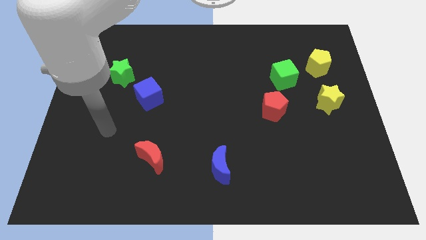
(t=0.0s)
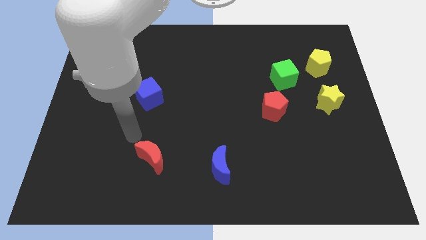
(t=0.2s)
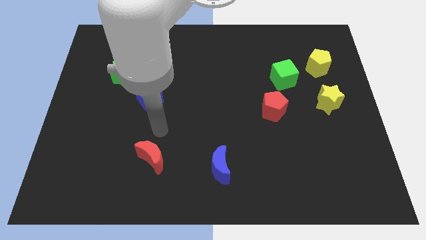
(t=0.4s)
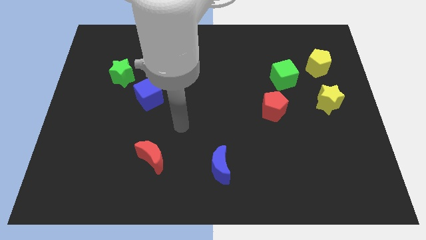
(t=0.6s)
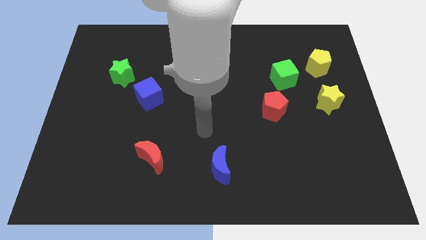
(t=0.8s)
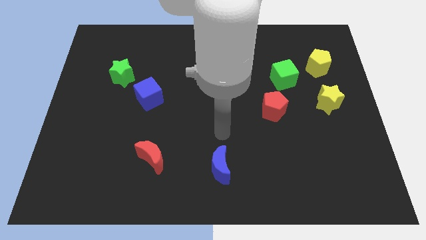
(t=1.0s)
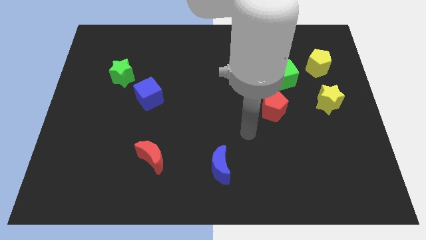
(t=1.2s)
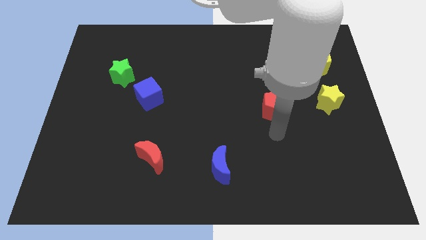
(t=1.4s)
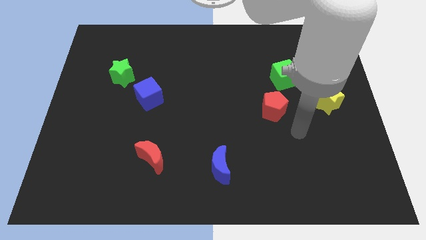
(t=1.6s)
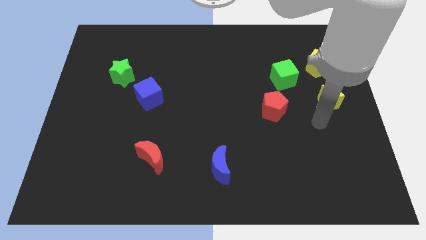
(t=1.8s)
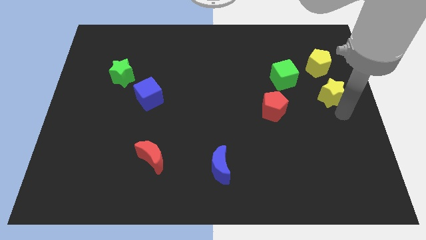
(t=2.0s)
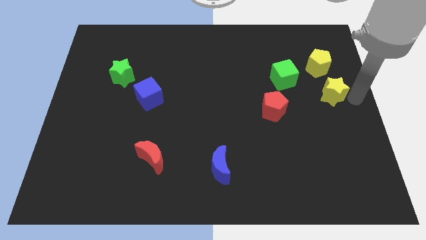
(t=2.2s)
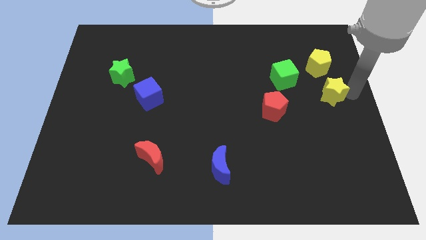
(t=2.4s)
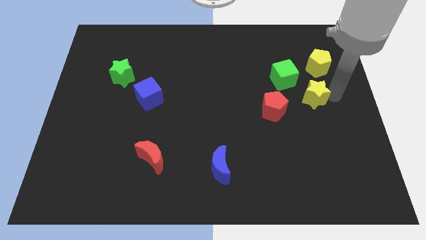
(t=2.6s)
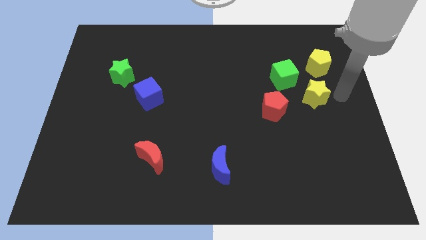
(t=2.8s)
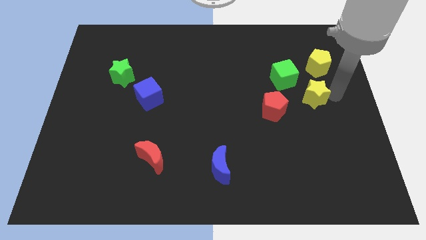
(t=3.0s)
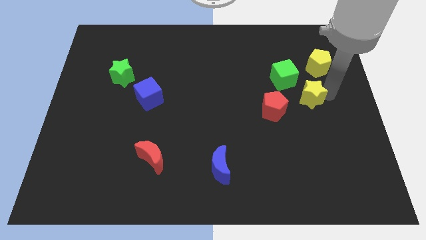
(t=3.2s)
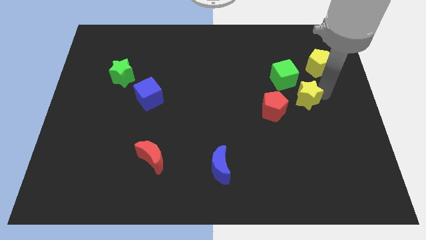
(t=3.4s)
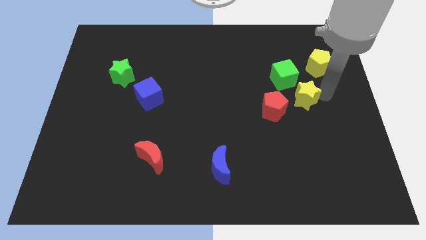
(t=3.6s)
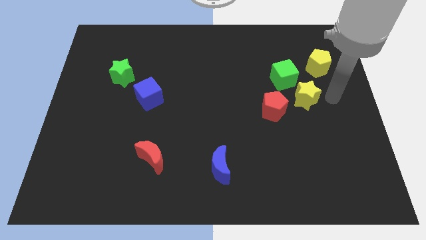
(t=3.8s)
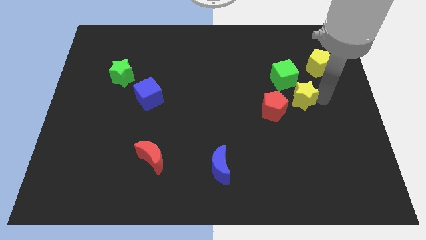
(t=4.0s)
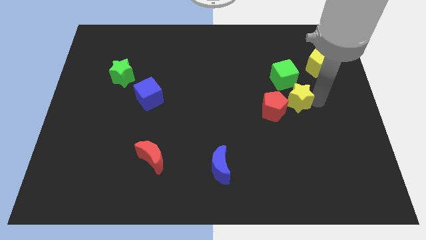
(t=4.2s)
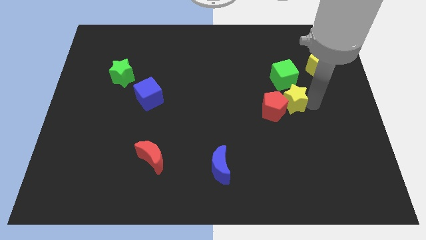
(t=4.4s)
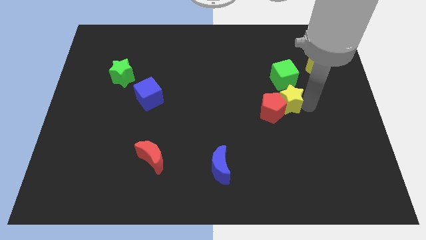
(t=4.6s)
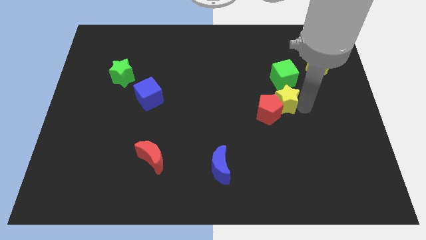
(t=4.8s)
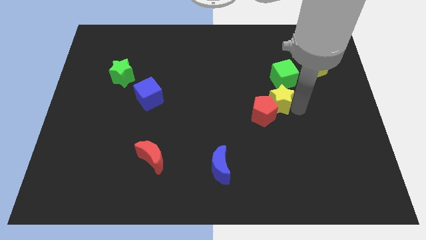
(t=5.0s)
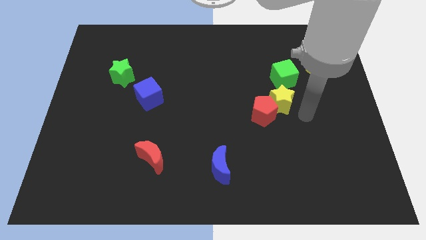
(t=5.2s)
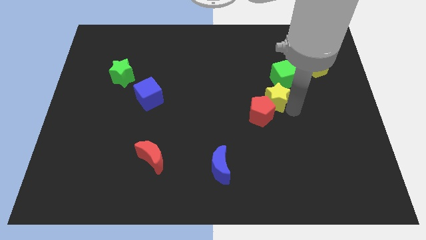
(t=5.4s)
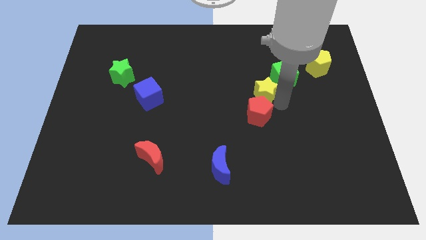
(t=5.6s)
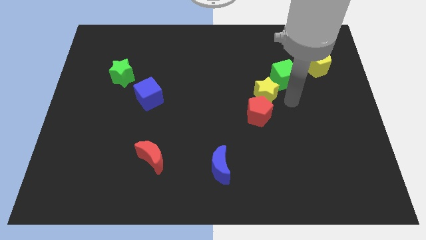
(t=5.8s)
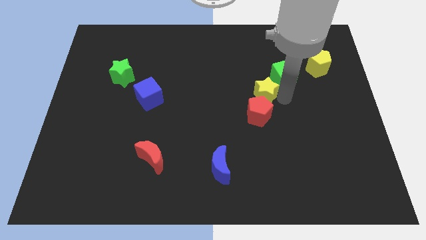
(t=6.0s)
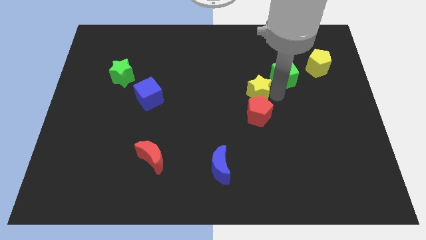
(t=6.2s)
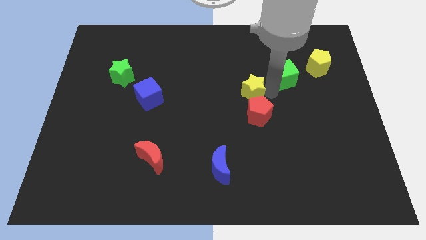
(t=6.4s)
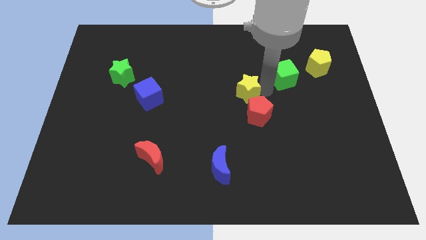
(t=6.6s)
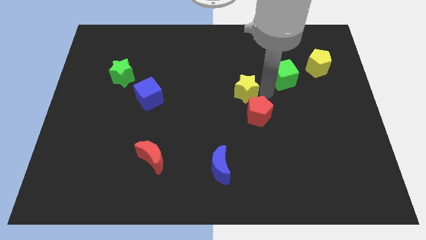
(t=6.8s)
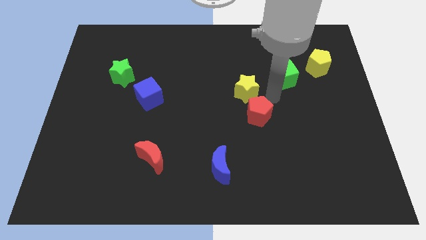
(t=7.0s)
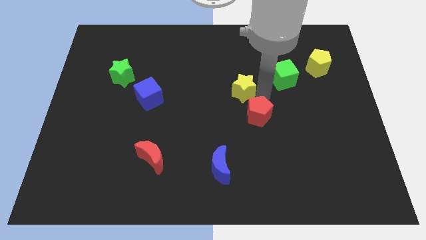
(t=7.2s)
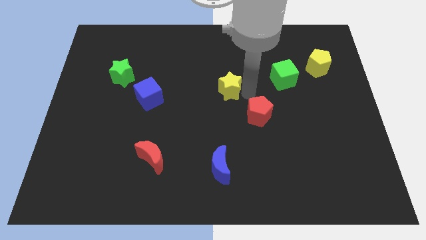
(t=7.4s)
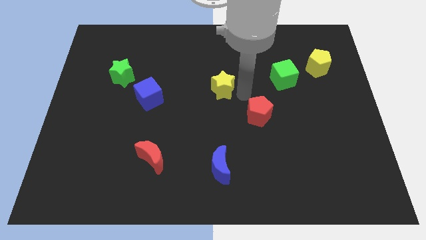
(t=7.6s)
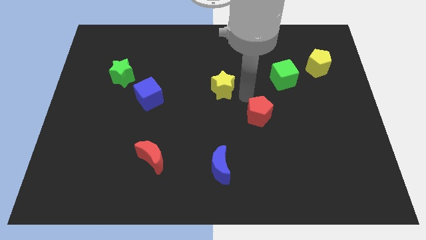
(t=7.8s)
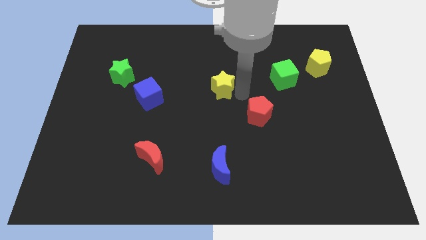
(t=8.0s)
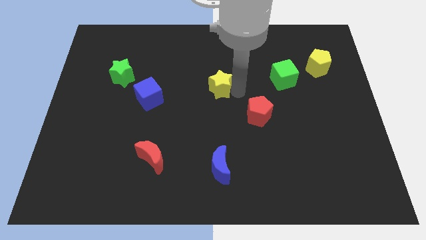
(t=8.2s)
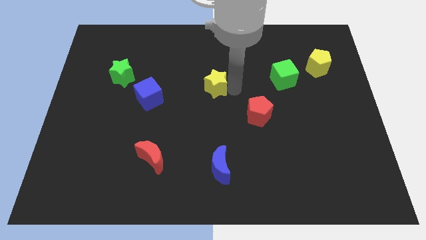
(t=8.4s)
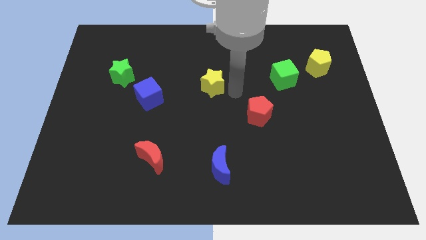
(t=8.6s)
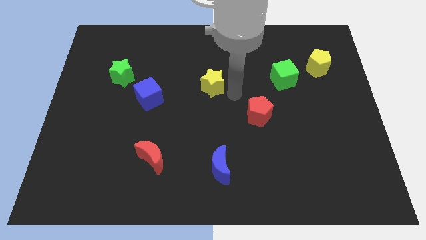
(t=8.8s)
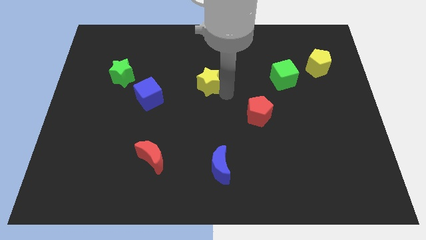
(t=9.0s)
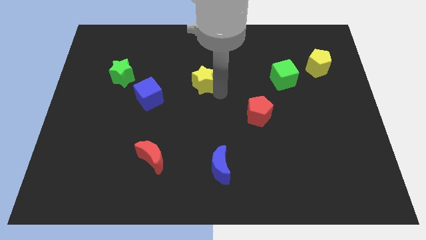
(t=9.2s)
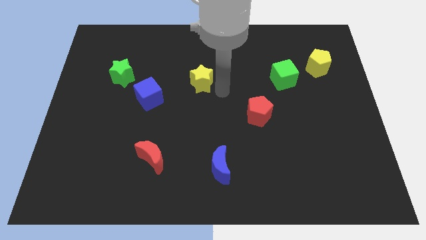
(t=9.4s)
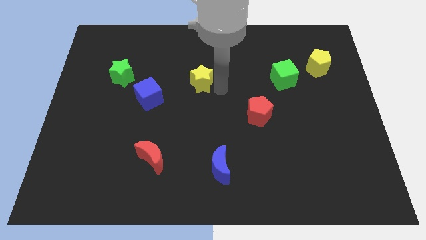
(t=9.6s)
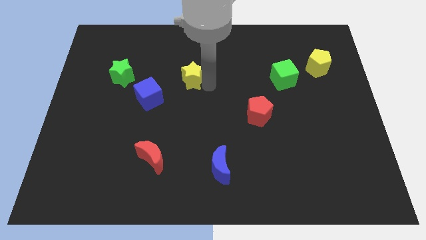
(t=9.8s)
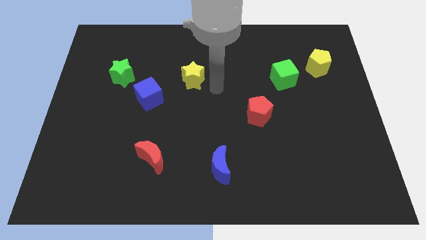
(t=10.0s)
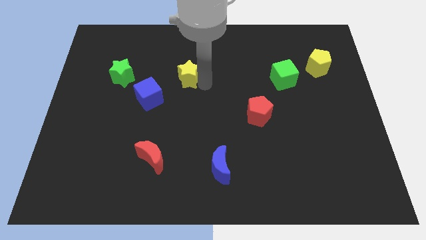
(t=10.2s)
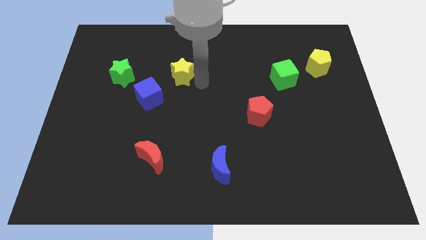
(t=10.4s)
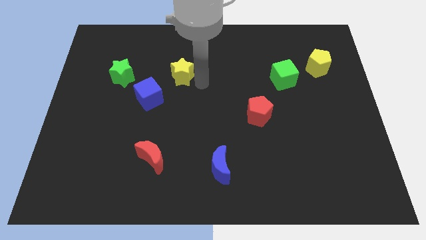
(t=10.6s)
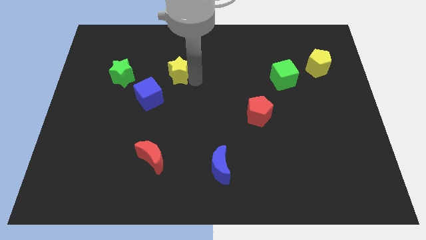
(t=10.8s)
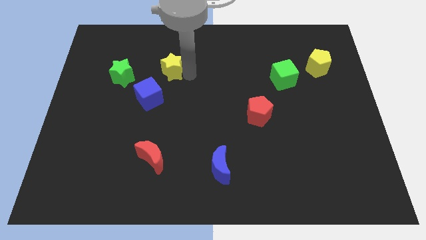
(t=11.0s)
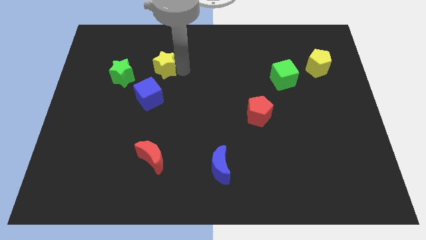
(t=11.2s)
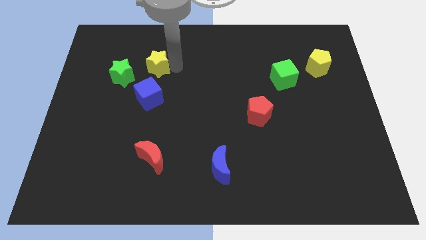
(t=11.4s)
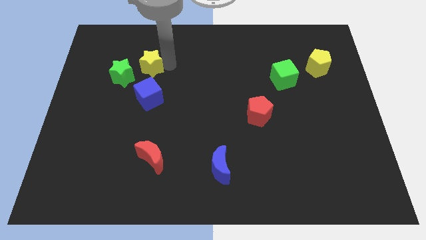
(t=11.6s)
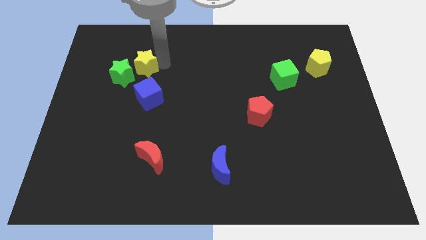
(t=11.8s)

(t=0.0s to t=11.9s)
push the yellow star to the green star

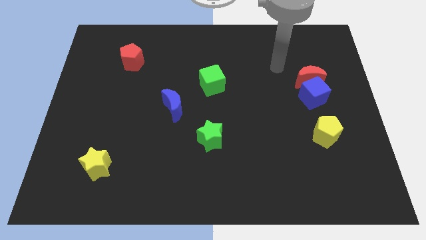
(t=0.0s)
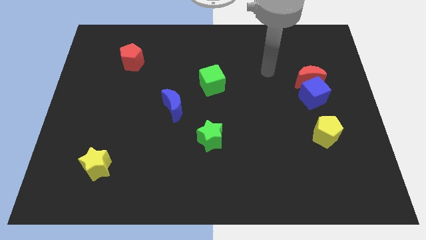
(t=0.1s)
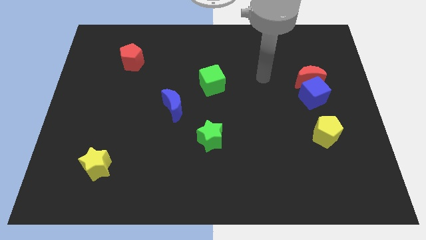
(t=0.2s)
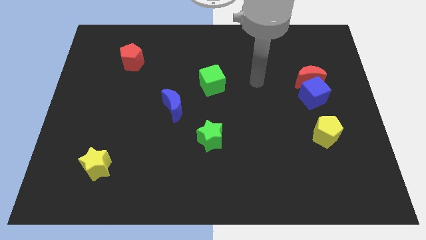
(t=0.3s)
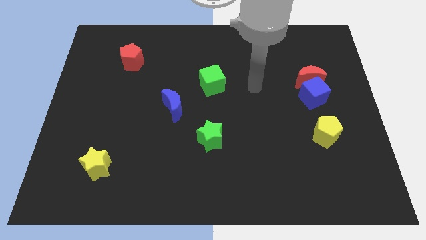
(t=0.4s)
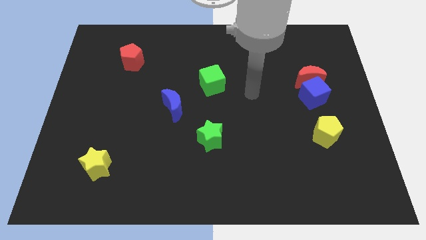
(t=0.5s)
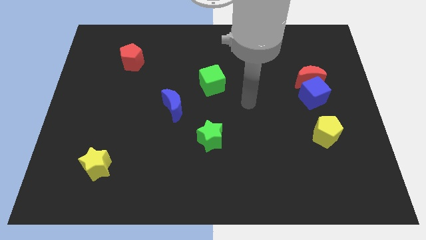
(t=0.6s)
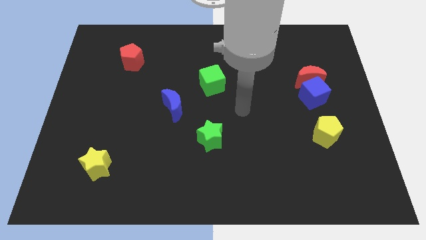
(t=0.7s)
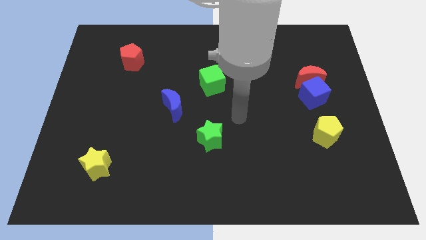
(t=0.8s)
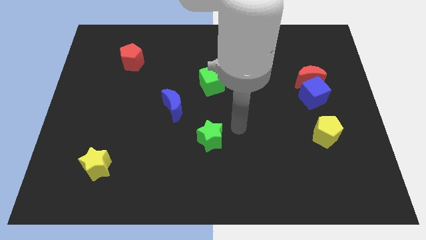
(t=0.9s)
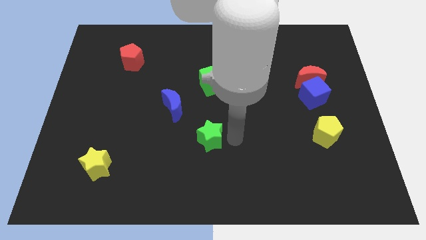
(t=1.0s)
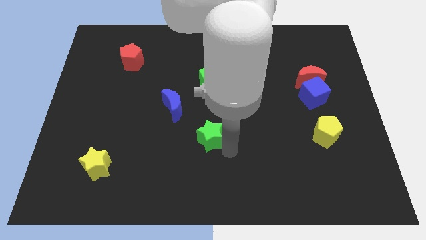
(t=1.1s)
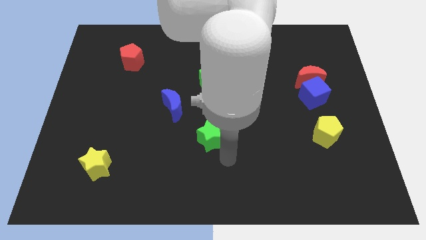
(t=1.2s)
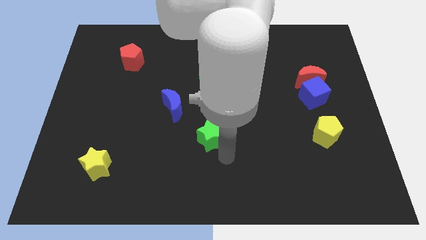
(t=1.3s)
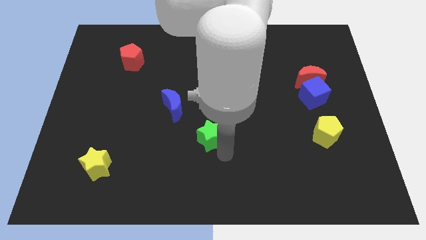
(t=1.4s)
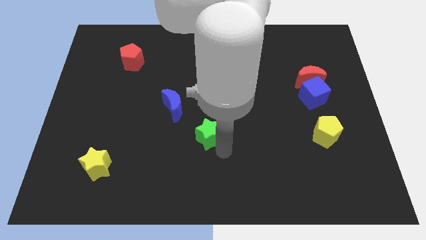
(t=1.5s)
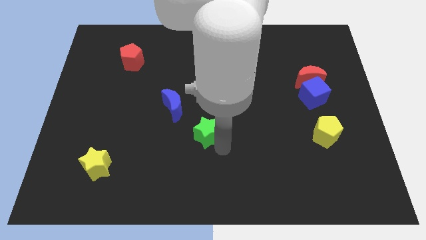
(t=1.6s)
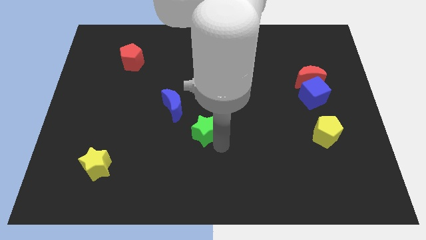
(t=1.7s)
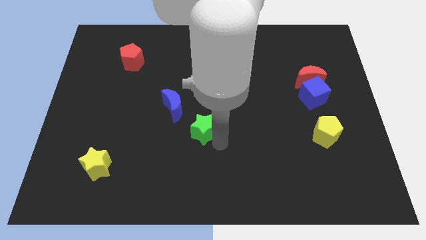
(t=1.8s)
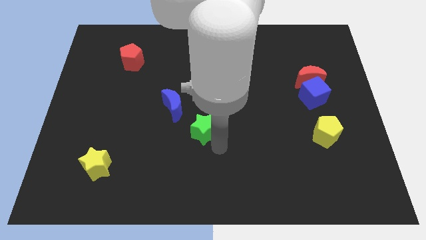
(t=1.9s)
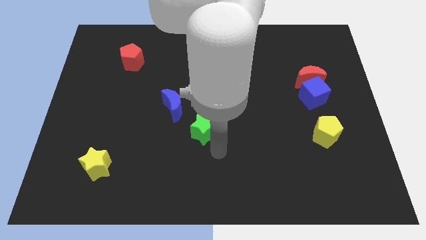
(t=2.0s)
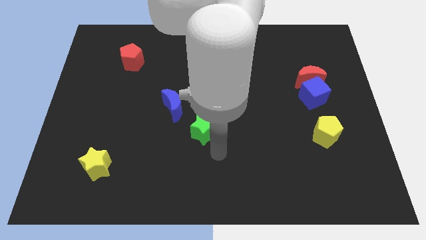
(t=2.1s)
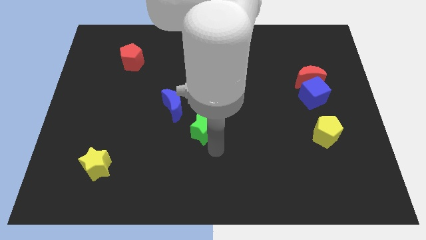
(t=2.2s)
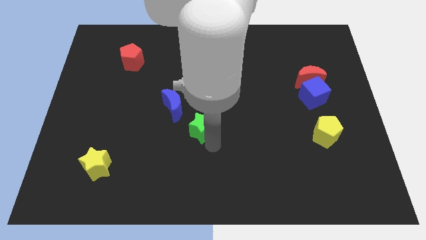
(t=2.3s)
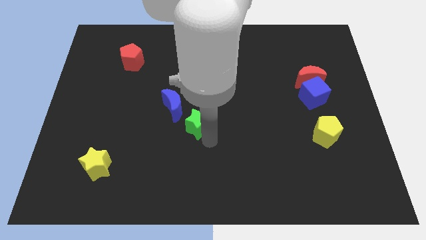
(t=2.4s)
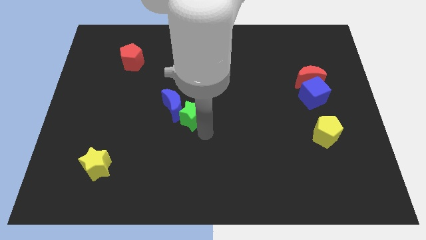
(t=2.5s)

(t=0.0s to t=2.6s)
put the green star next to the blue moon
